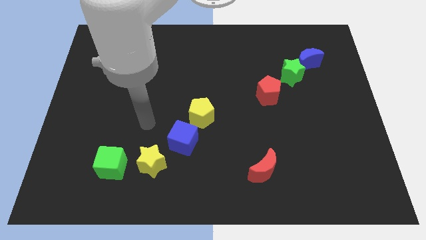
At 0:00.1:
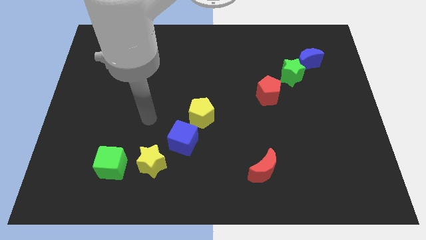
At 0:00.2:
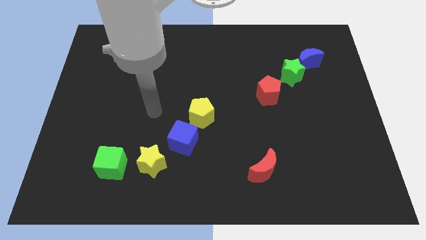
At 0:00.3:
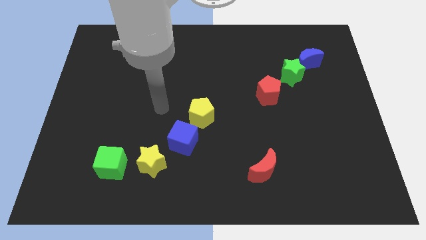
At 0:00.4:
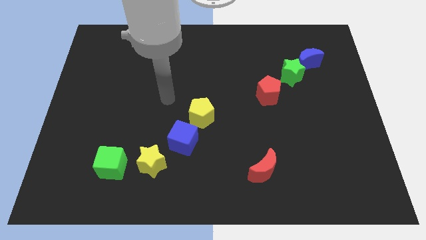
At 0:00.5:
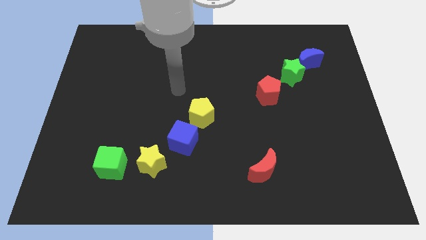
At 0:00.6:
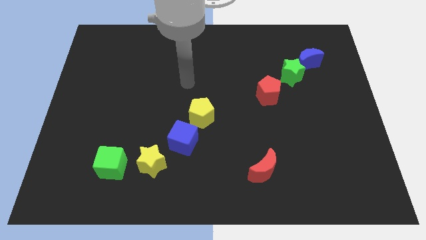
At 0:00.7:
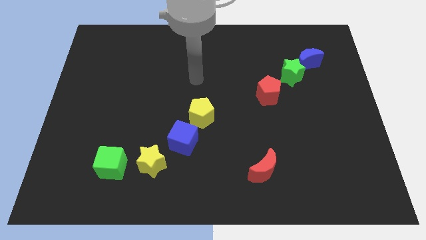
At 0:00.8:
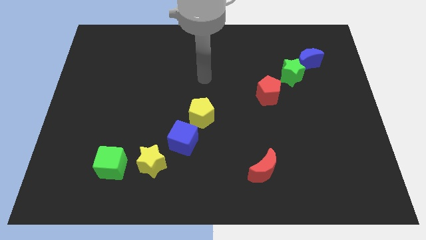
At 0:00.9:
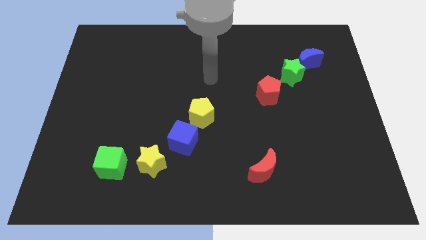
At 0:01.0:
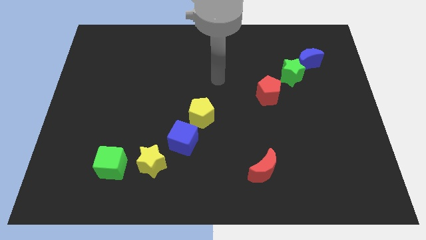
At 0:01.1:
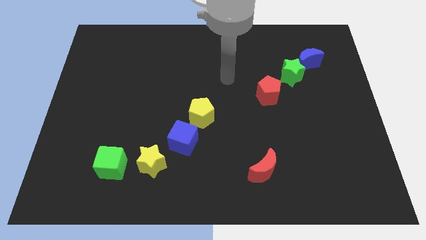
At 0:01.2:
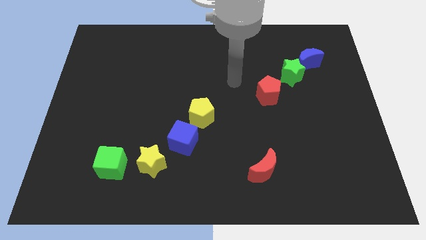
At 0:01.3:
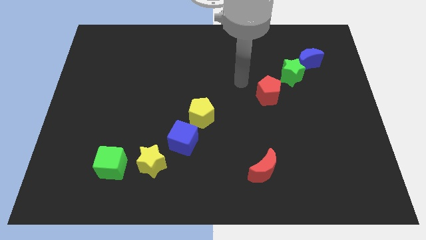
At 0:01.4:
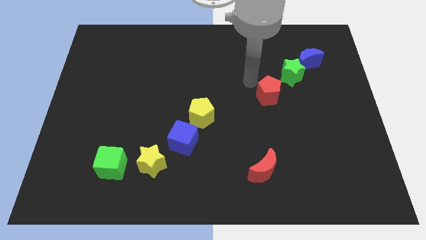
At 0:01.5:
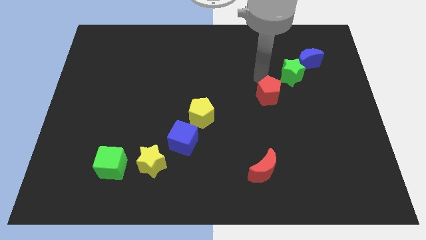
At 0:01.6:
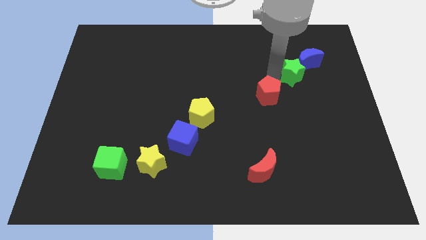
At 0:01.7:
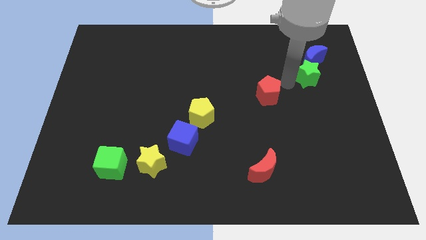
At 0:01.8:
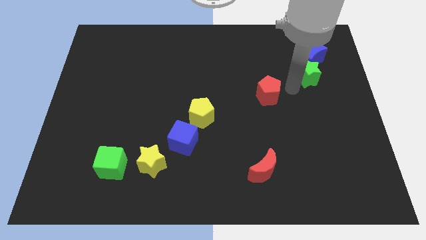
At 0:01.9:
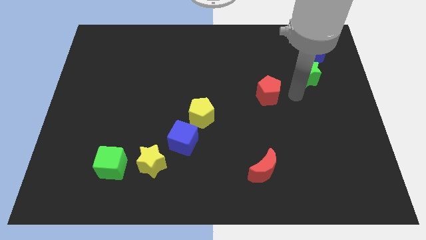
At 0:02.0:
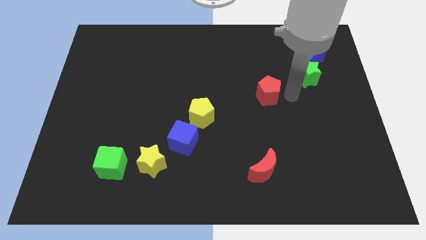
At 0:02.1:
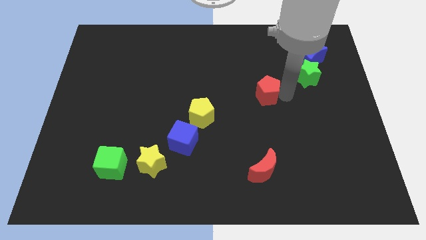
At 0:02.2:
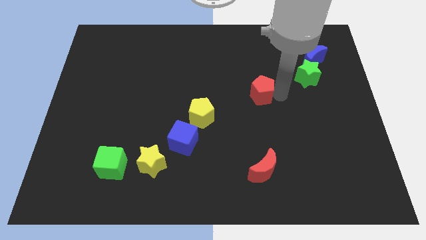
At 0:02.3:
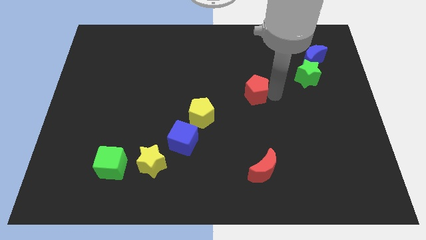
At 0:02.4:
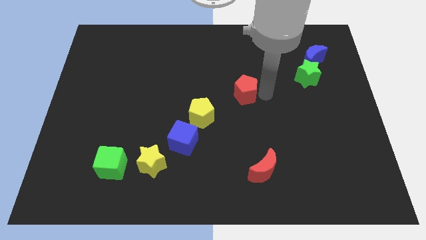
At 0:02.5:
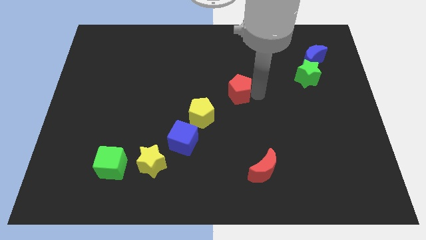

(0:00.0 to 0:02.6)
move the red pentagon left somewhat

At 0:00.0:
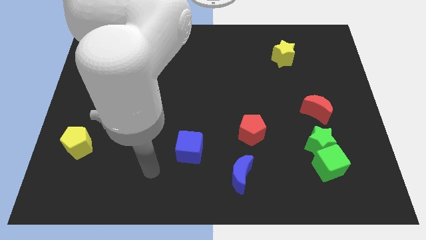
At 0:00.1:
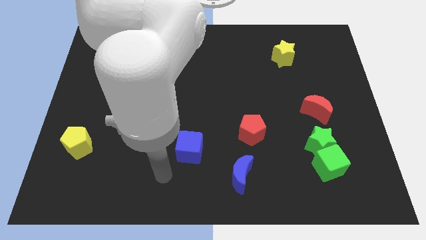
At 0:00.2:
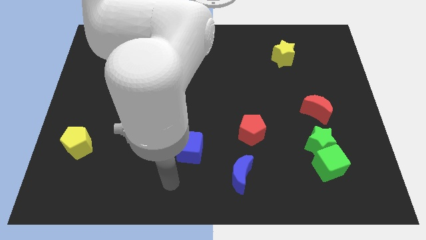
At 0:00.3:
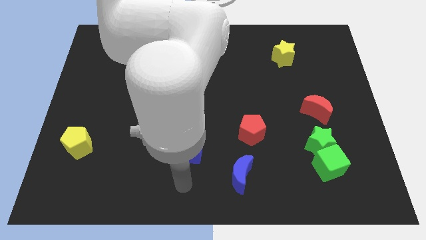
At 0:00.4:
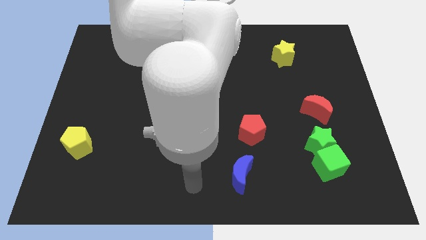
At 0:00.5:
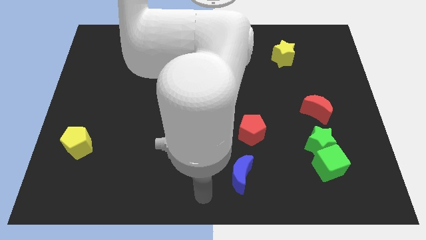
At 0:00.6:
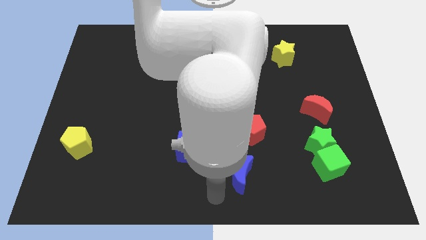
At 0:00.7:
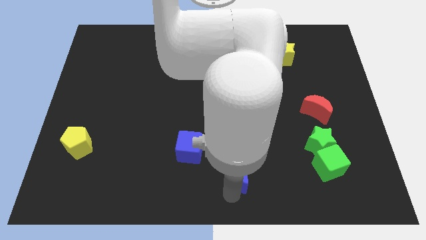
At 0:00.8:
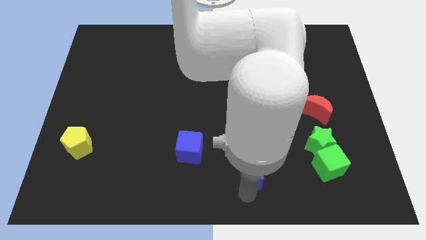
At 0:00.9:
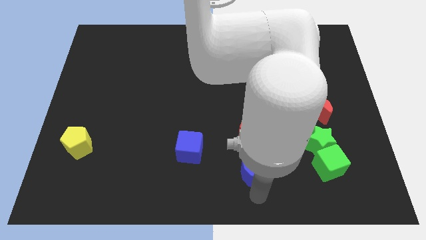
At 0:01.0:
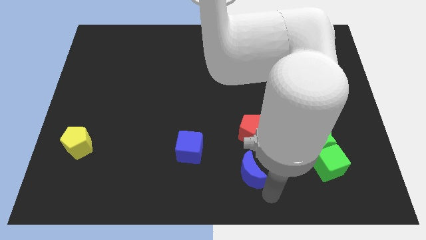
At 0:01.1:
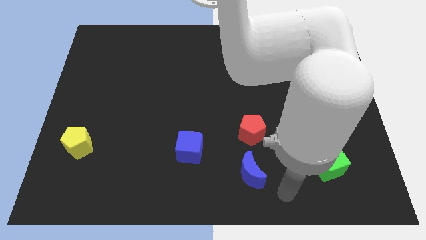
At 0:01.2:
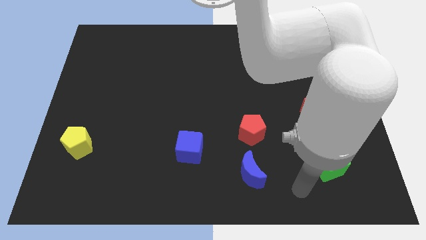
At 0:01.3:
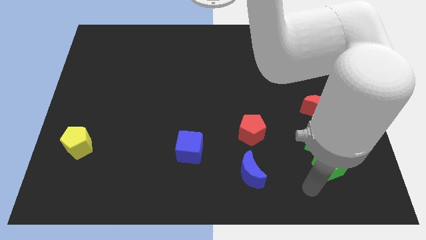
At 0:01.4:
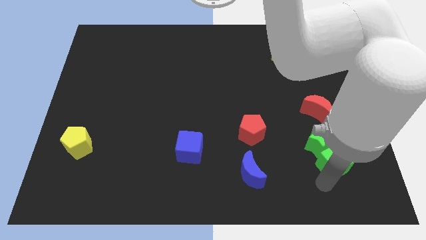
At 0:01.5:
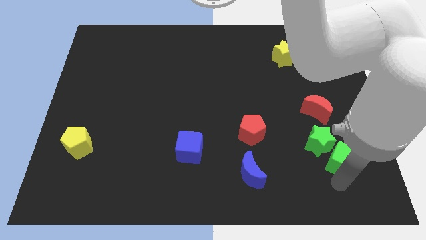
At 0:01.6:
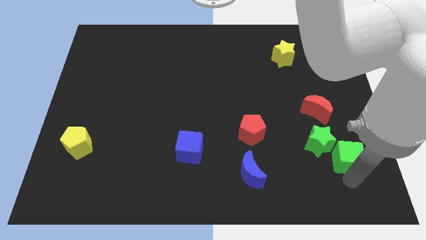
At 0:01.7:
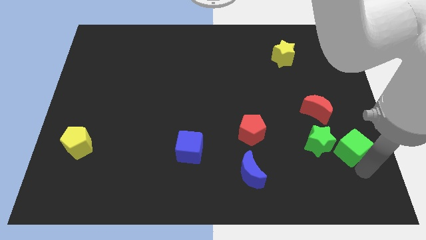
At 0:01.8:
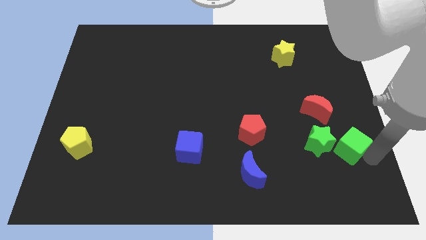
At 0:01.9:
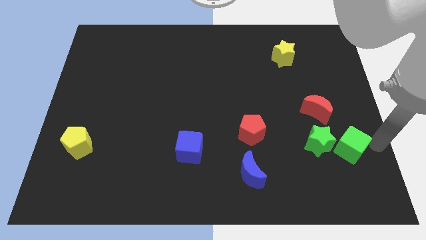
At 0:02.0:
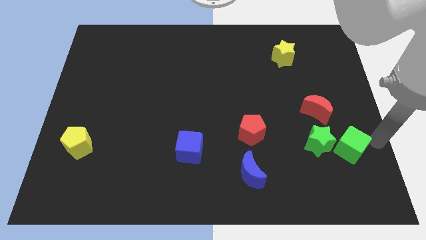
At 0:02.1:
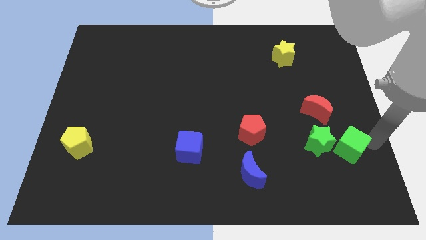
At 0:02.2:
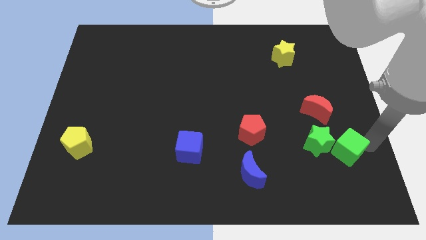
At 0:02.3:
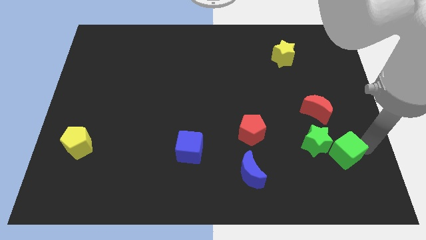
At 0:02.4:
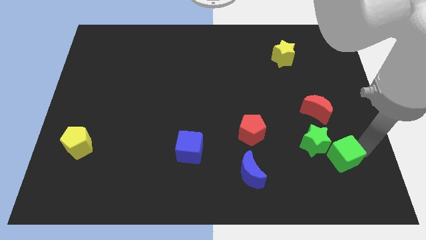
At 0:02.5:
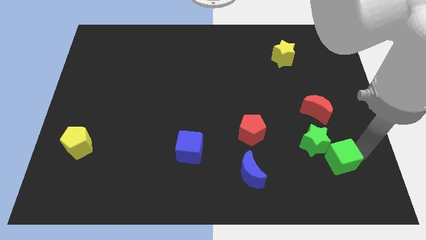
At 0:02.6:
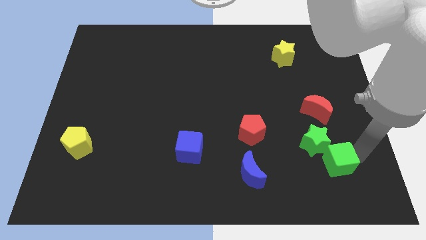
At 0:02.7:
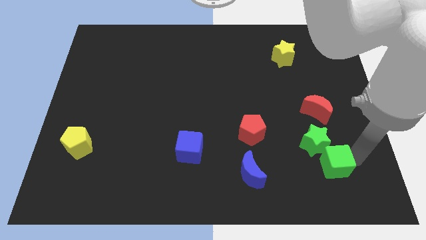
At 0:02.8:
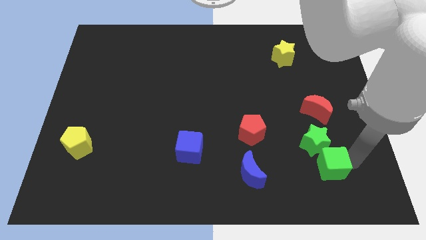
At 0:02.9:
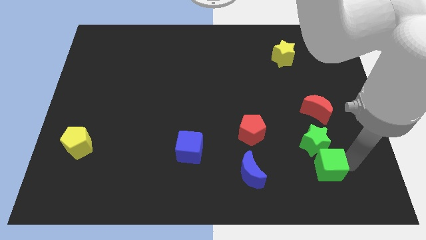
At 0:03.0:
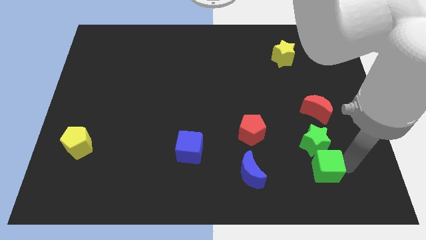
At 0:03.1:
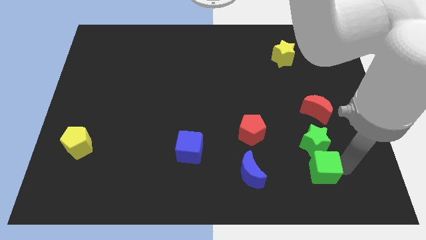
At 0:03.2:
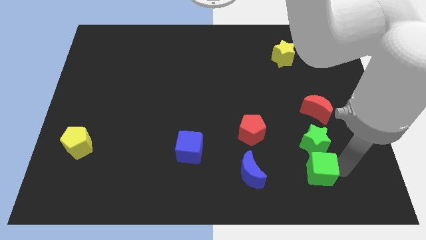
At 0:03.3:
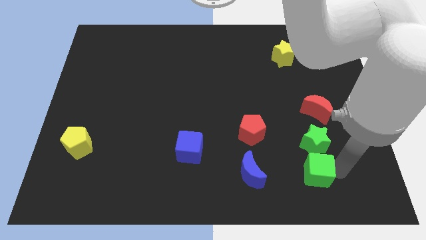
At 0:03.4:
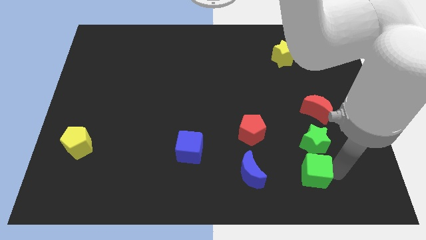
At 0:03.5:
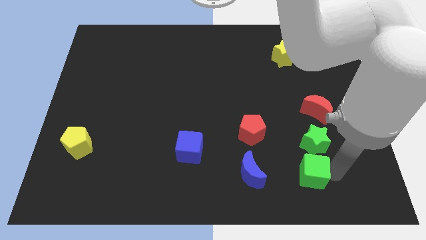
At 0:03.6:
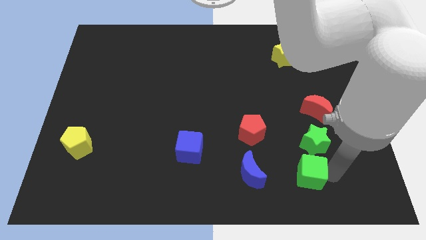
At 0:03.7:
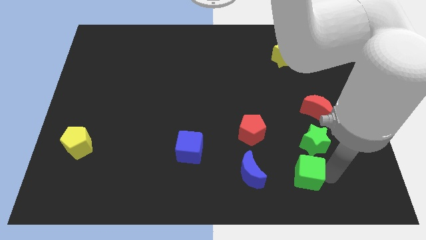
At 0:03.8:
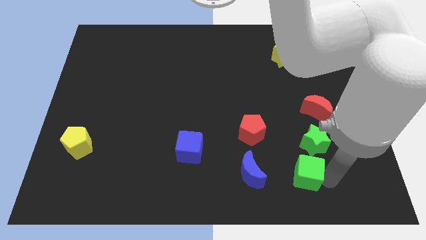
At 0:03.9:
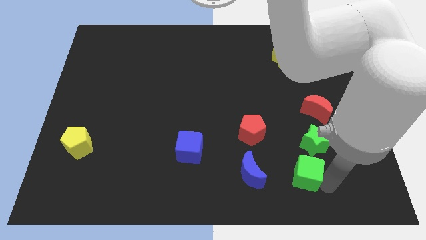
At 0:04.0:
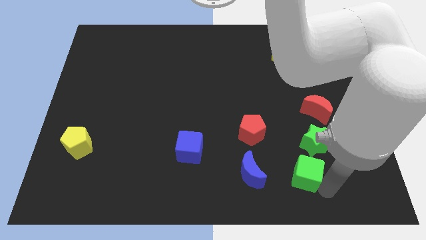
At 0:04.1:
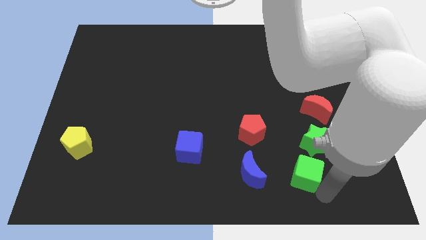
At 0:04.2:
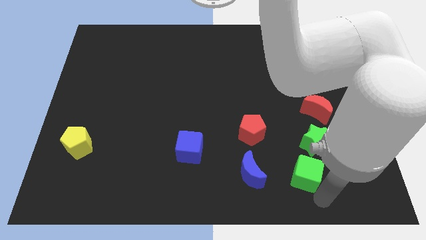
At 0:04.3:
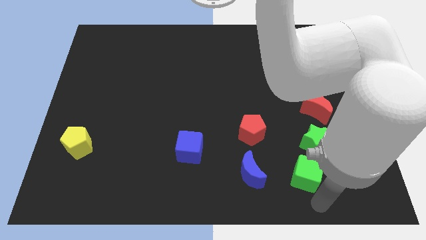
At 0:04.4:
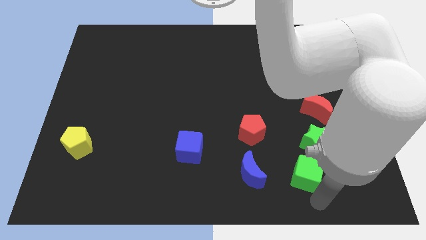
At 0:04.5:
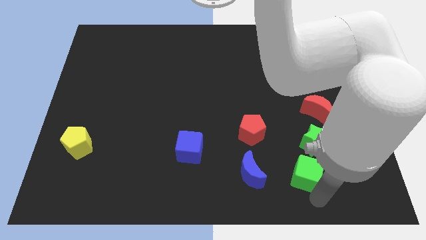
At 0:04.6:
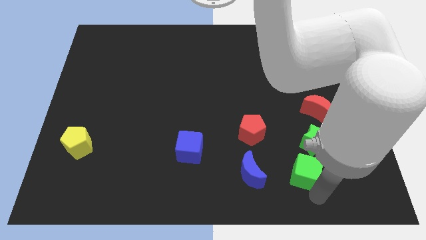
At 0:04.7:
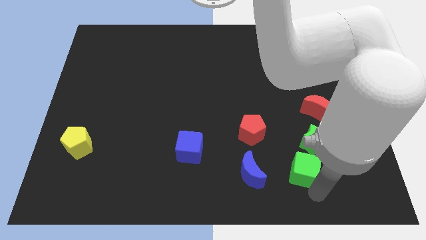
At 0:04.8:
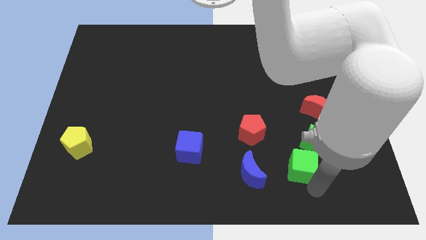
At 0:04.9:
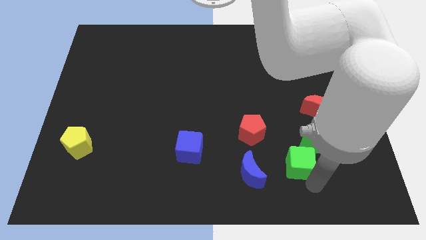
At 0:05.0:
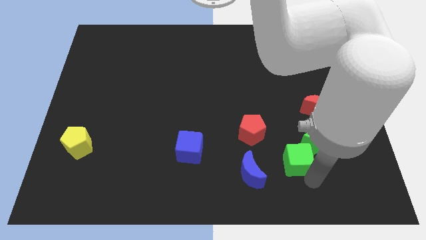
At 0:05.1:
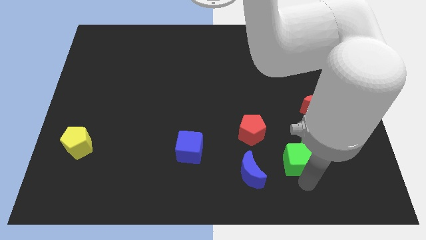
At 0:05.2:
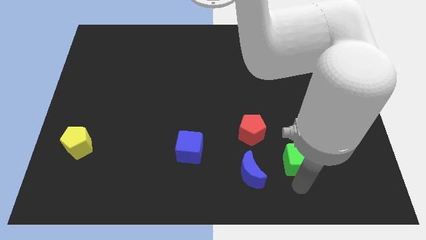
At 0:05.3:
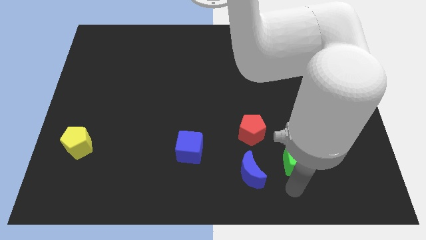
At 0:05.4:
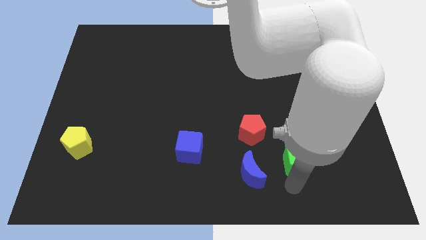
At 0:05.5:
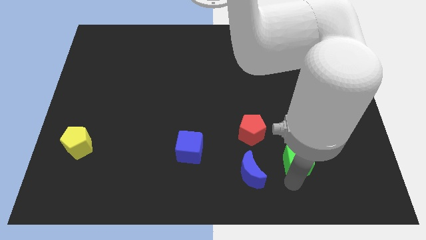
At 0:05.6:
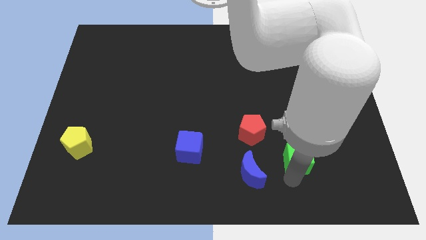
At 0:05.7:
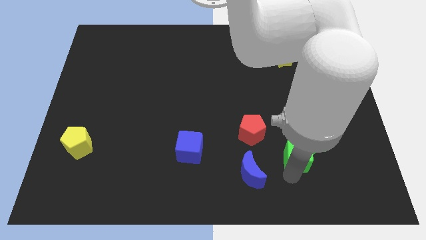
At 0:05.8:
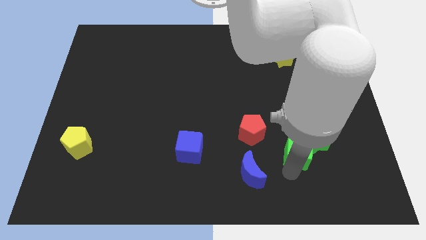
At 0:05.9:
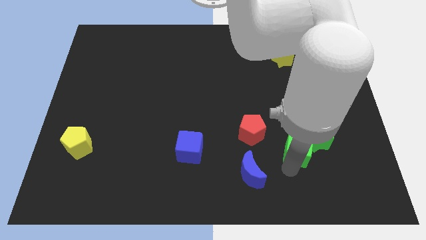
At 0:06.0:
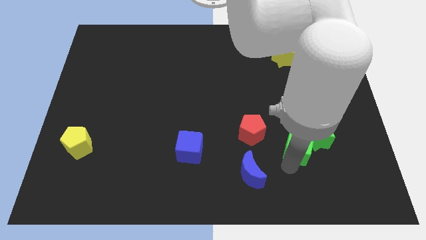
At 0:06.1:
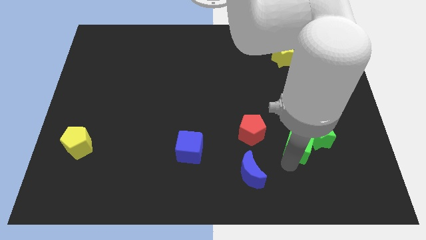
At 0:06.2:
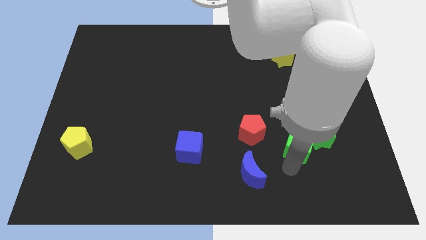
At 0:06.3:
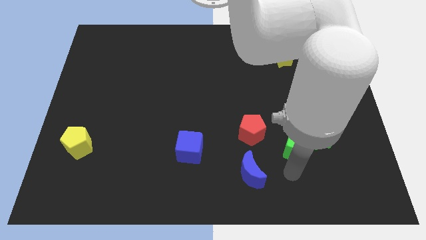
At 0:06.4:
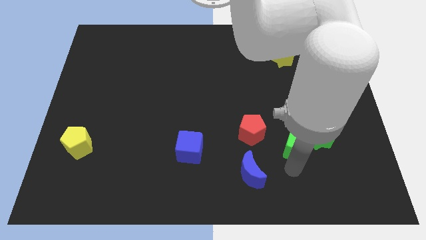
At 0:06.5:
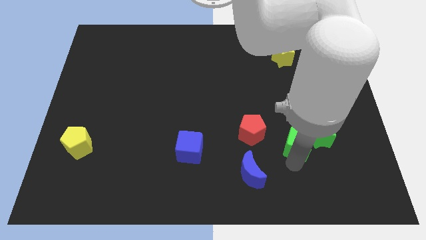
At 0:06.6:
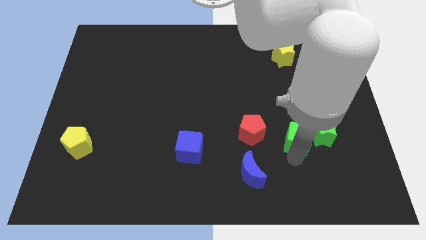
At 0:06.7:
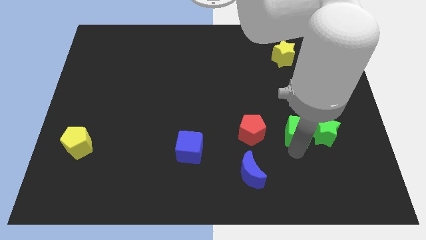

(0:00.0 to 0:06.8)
push the green cube a bit up
